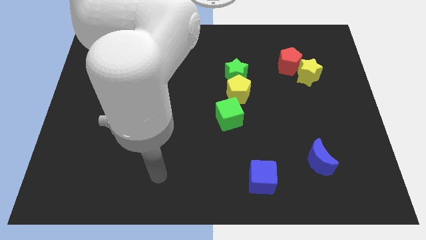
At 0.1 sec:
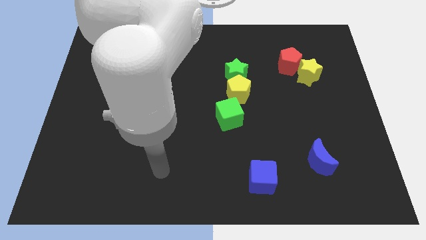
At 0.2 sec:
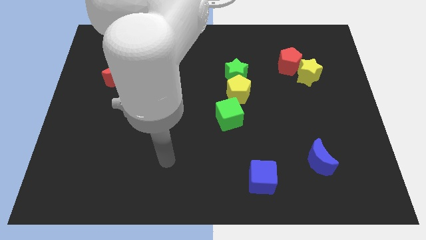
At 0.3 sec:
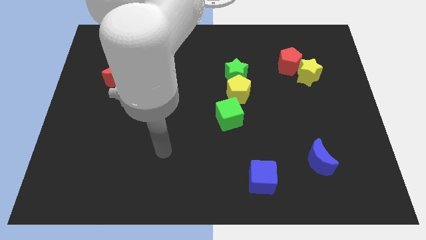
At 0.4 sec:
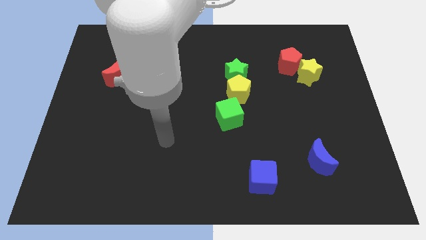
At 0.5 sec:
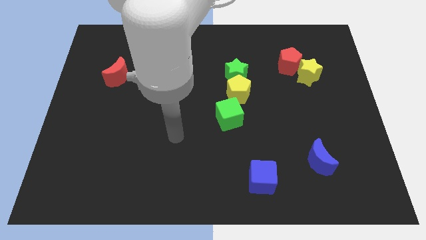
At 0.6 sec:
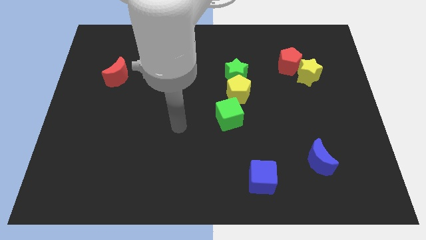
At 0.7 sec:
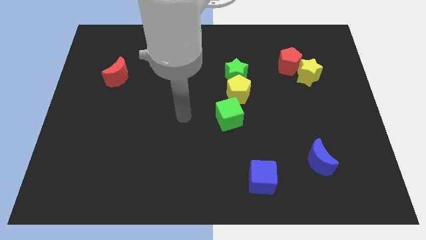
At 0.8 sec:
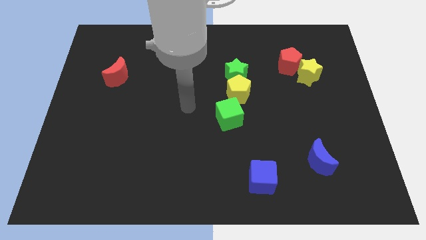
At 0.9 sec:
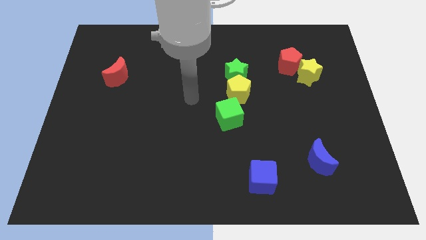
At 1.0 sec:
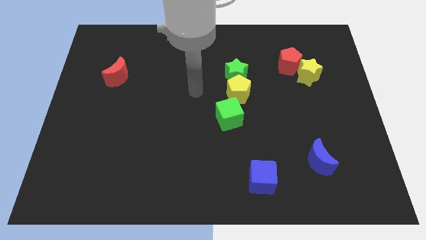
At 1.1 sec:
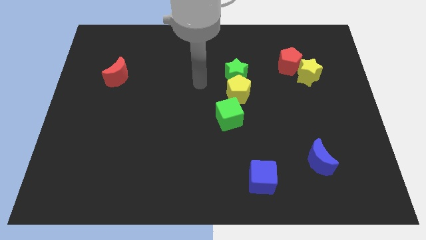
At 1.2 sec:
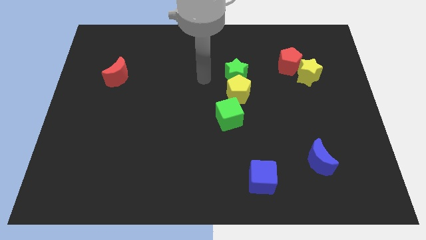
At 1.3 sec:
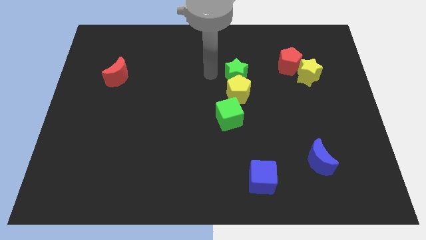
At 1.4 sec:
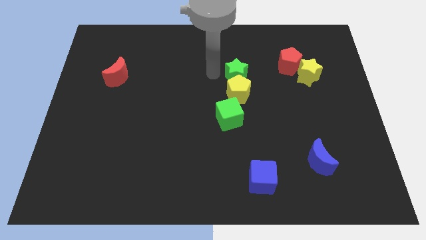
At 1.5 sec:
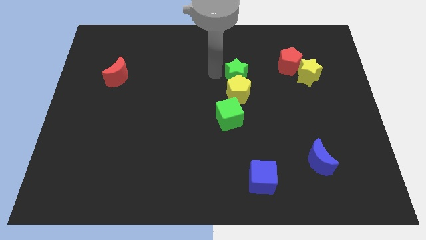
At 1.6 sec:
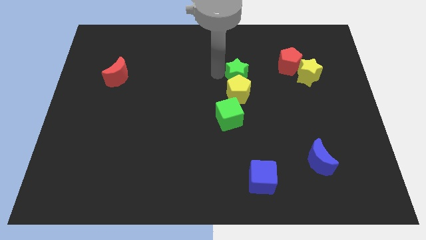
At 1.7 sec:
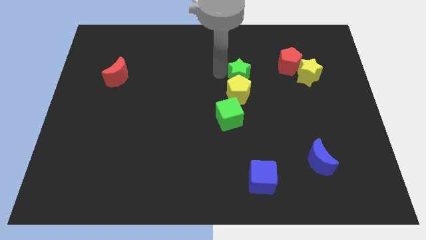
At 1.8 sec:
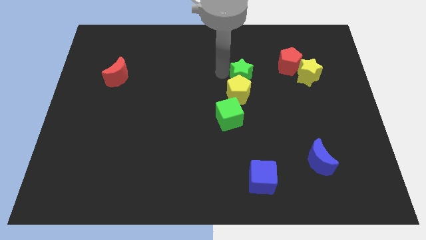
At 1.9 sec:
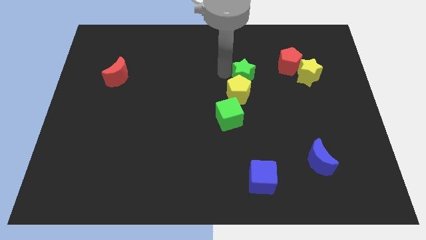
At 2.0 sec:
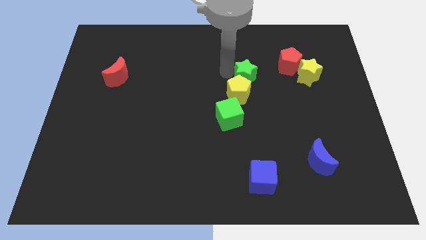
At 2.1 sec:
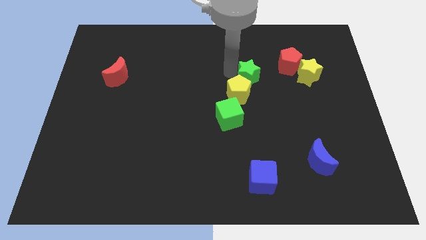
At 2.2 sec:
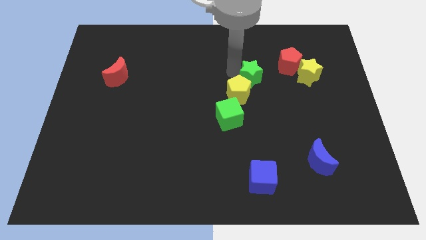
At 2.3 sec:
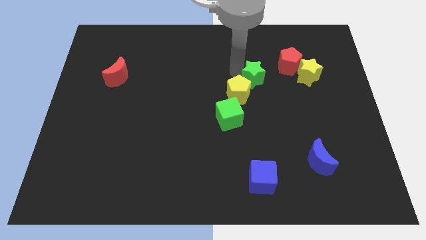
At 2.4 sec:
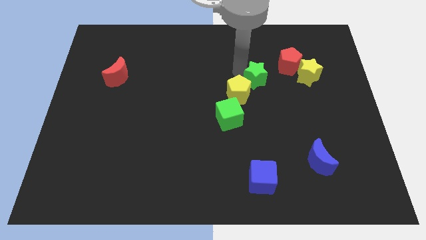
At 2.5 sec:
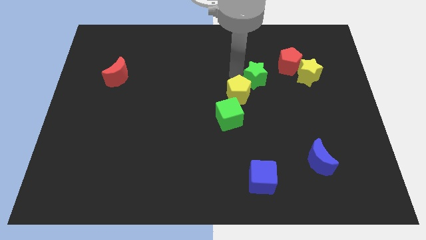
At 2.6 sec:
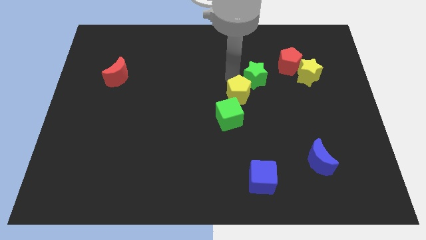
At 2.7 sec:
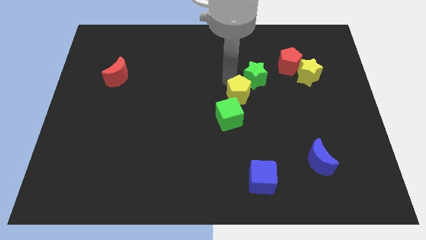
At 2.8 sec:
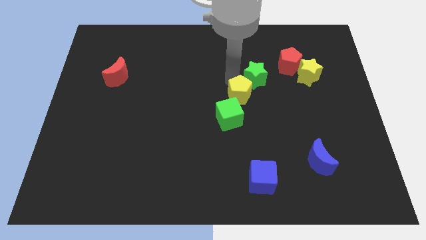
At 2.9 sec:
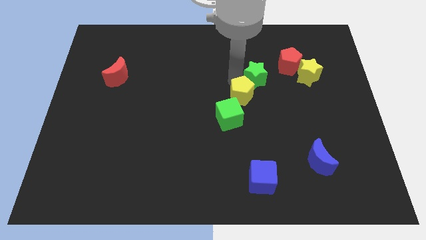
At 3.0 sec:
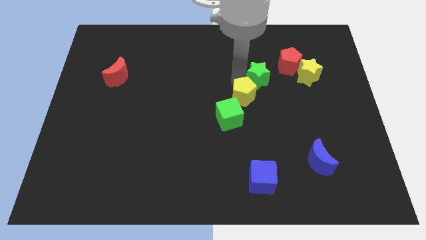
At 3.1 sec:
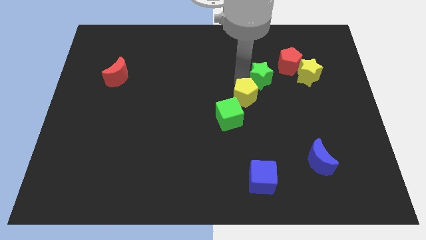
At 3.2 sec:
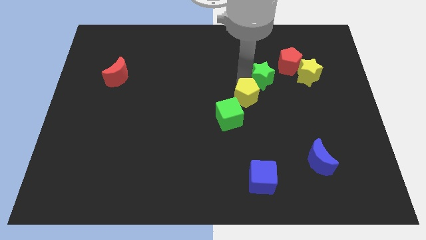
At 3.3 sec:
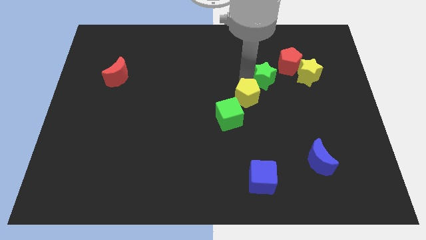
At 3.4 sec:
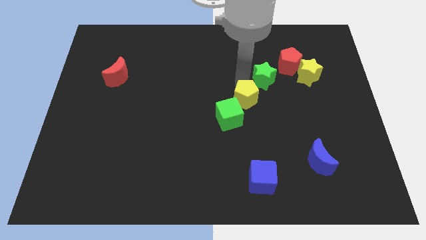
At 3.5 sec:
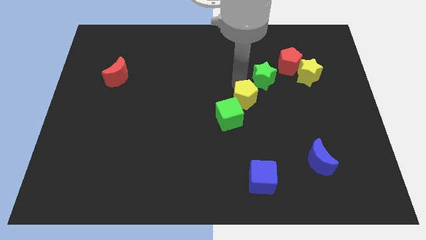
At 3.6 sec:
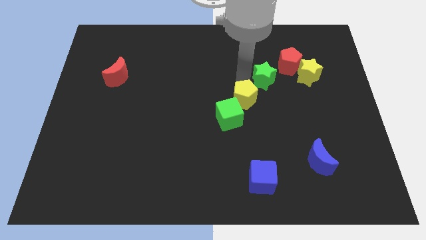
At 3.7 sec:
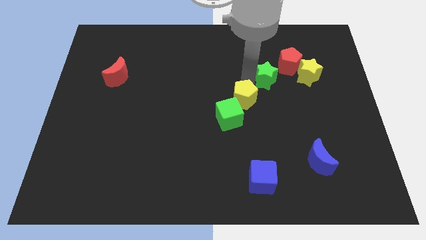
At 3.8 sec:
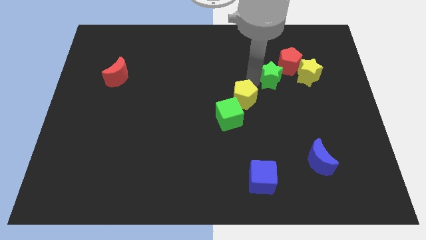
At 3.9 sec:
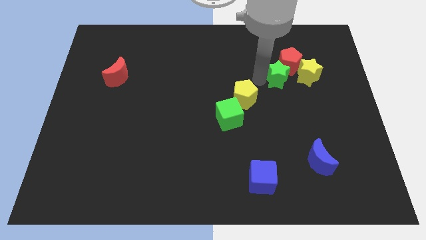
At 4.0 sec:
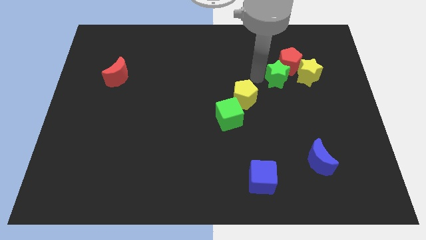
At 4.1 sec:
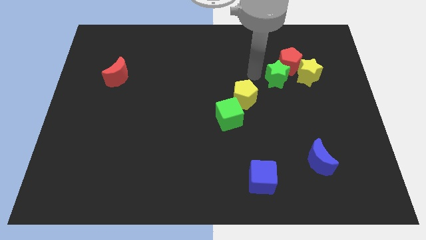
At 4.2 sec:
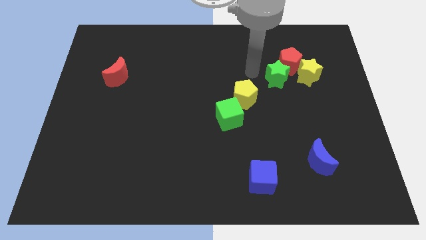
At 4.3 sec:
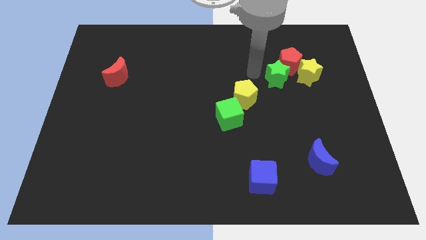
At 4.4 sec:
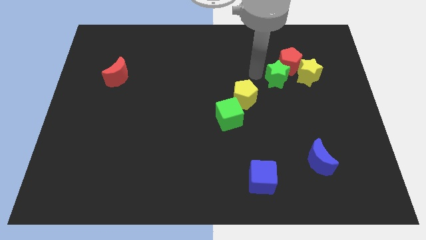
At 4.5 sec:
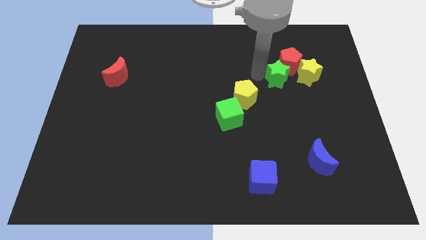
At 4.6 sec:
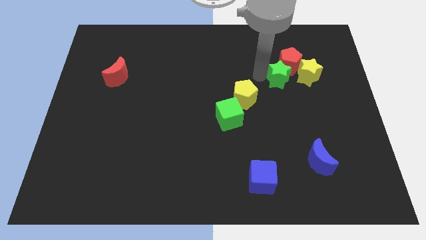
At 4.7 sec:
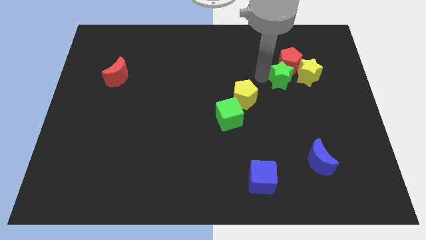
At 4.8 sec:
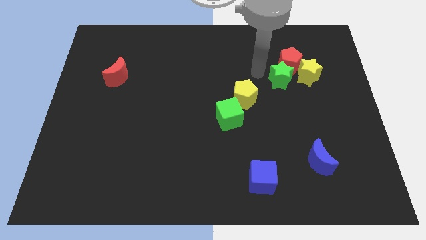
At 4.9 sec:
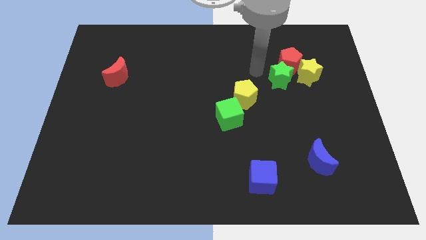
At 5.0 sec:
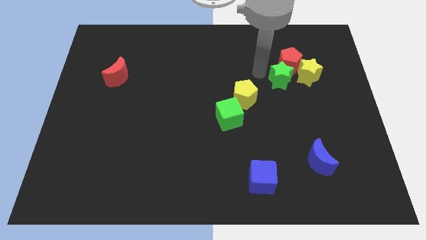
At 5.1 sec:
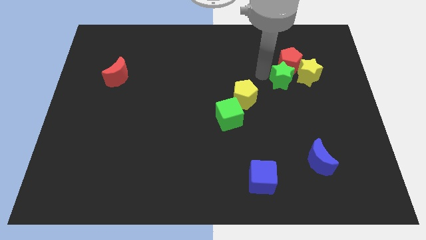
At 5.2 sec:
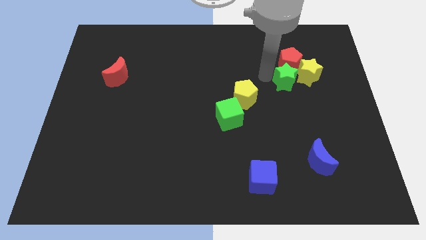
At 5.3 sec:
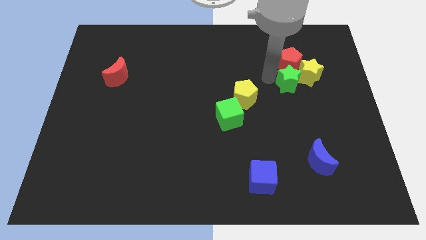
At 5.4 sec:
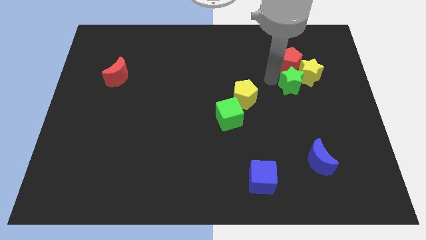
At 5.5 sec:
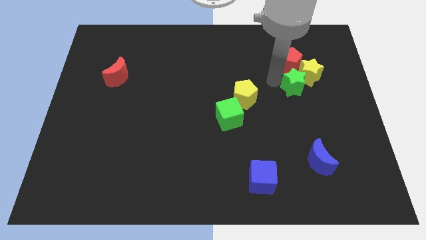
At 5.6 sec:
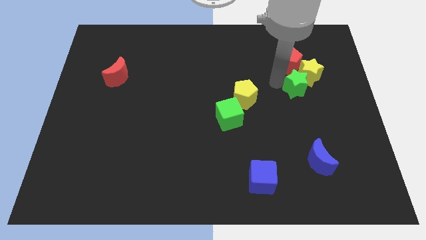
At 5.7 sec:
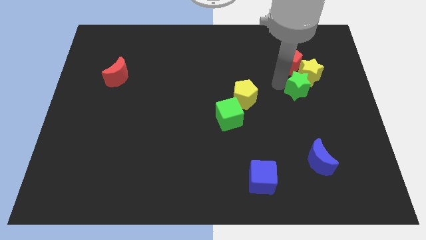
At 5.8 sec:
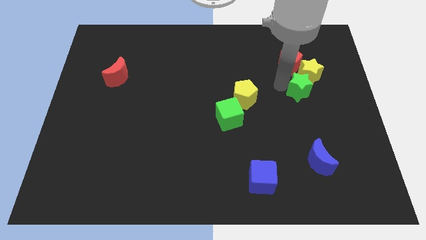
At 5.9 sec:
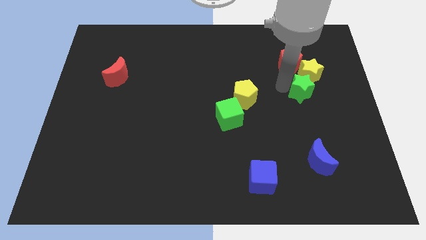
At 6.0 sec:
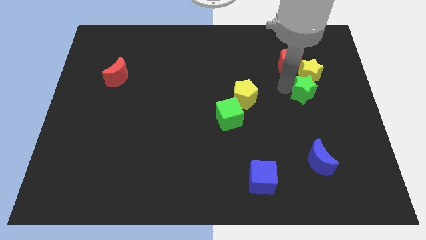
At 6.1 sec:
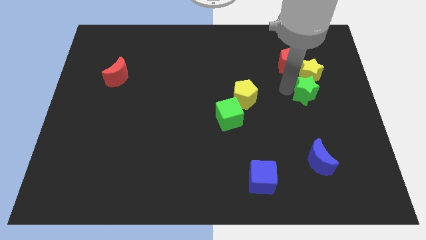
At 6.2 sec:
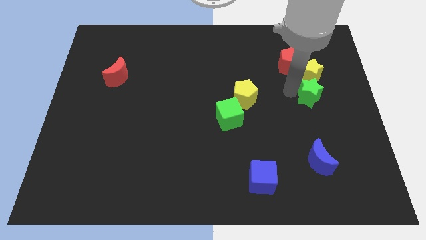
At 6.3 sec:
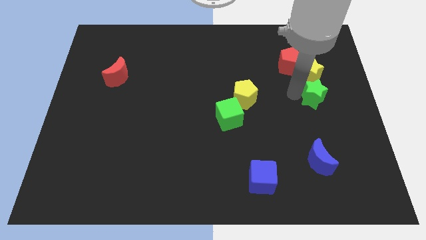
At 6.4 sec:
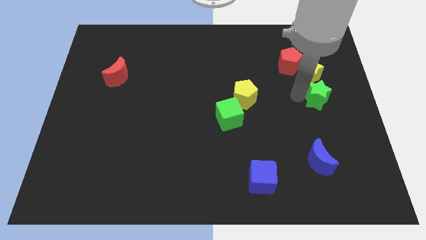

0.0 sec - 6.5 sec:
slide the green star to the right side of the board
